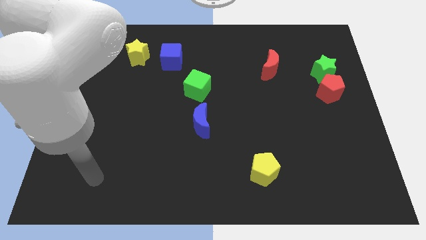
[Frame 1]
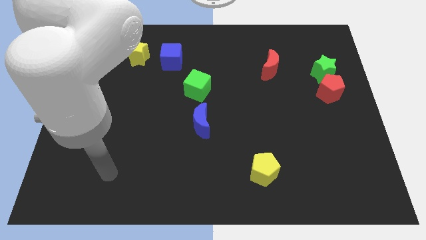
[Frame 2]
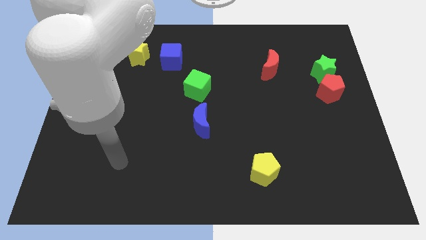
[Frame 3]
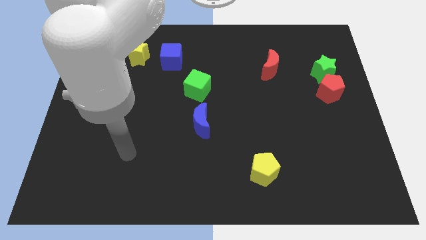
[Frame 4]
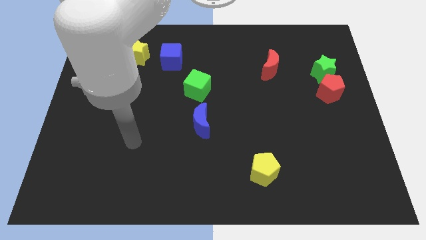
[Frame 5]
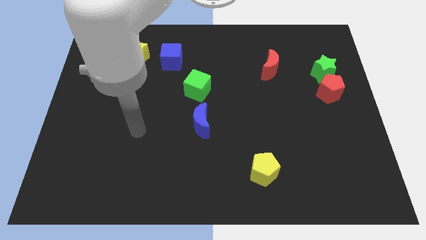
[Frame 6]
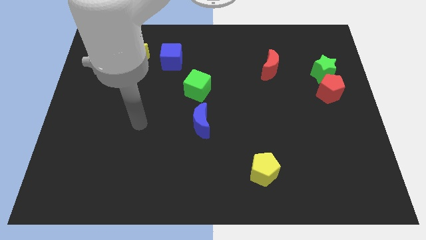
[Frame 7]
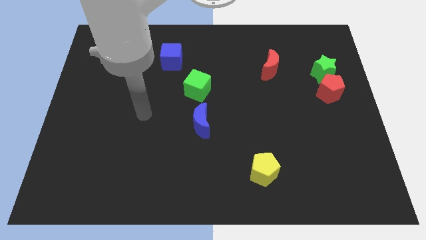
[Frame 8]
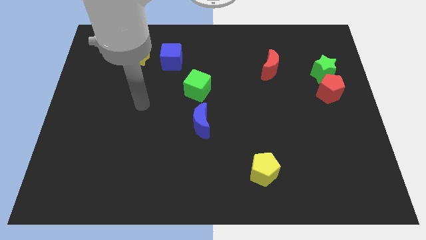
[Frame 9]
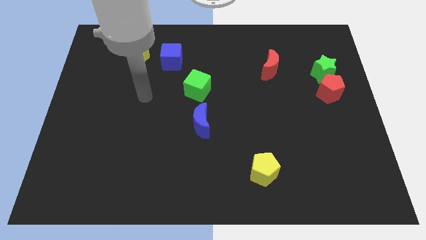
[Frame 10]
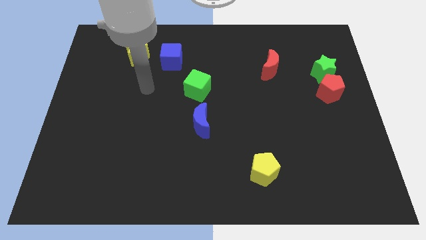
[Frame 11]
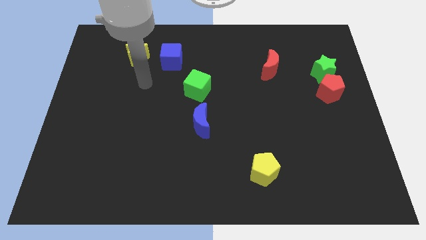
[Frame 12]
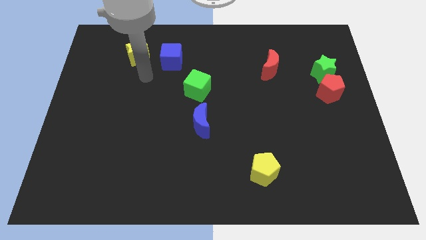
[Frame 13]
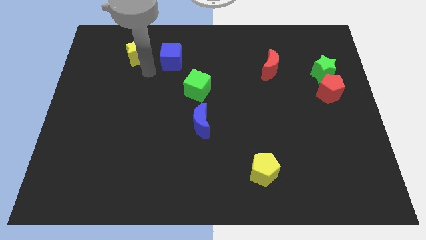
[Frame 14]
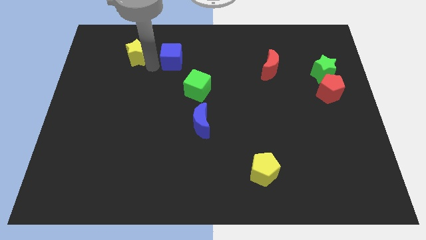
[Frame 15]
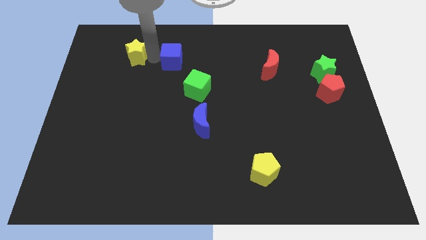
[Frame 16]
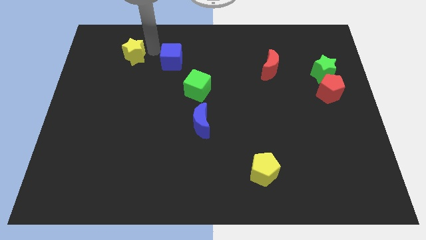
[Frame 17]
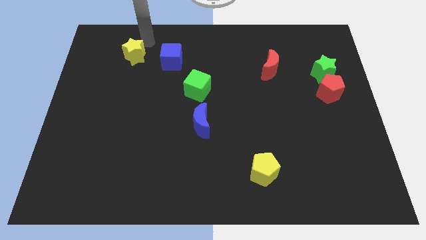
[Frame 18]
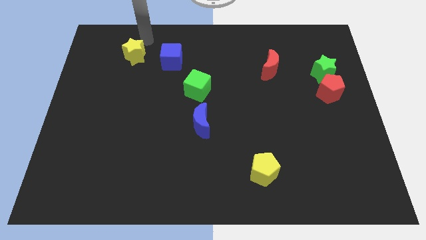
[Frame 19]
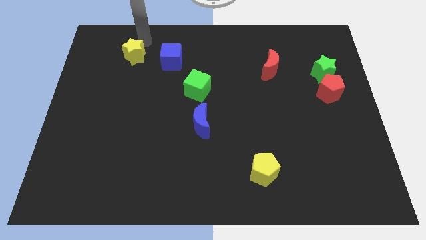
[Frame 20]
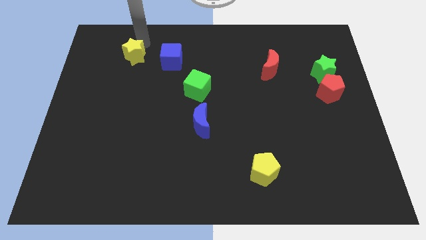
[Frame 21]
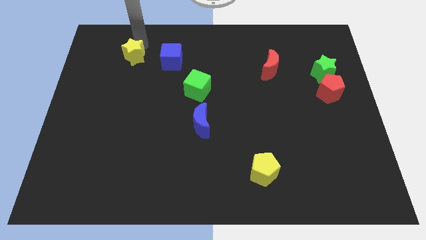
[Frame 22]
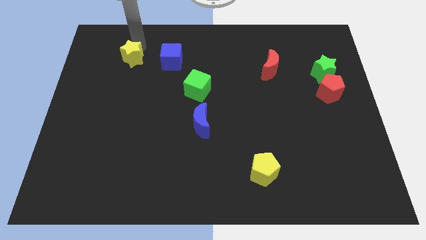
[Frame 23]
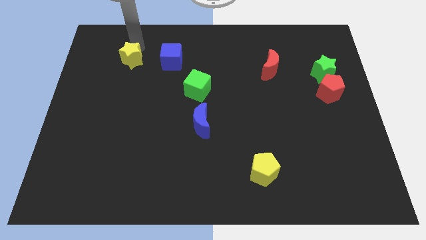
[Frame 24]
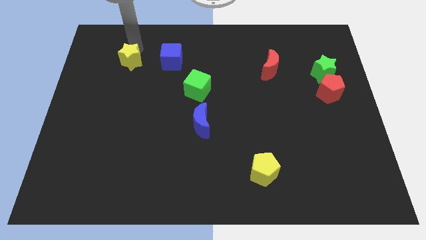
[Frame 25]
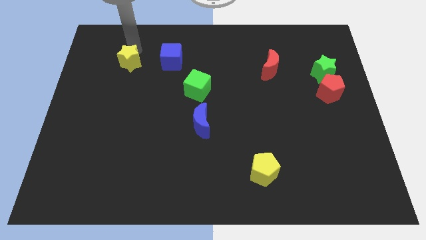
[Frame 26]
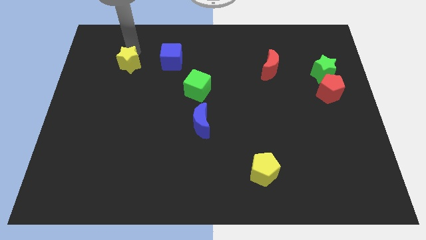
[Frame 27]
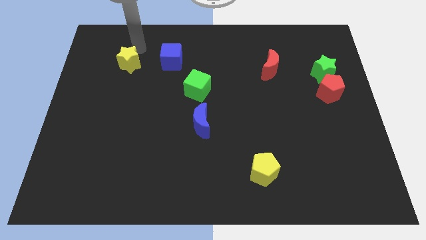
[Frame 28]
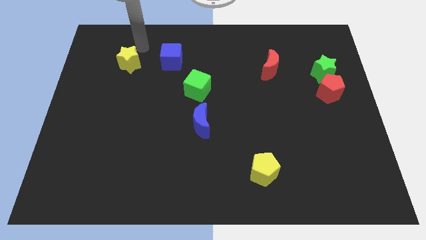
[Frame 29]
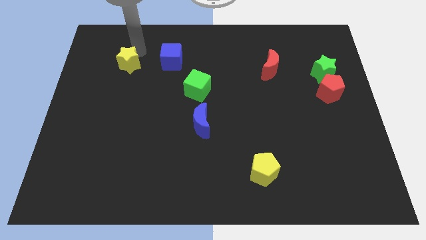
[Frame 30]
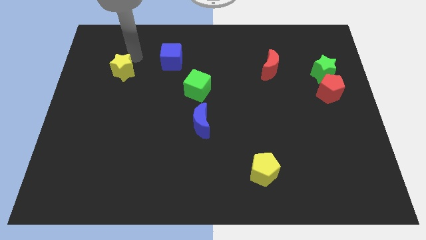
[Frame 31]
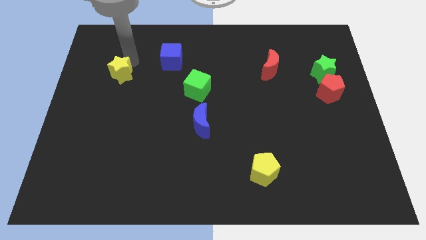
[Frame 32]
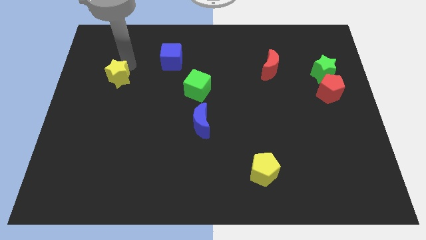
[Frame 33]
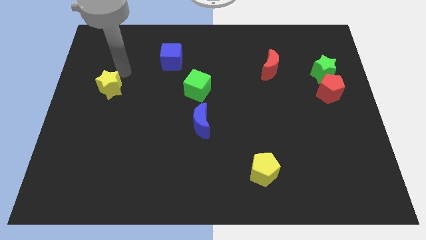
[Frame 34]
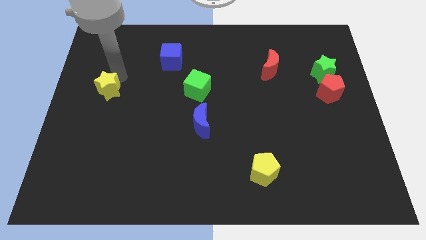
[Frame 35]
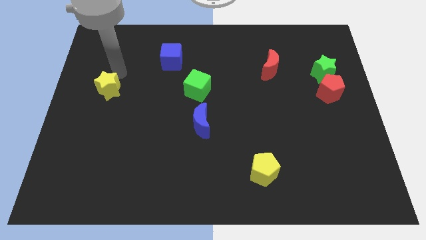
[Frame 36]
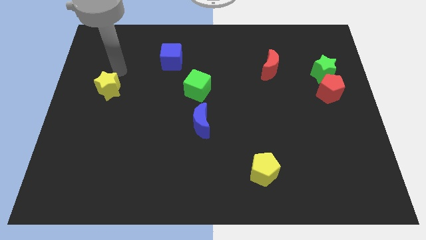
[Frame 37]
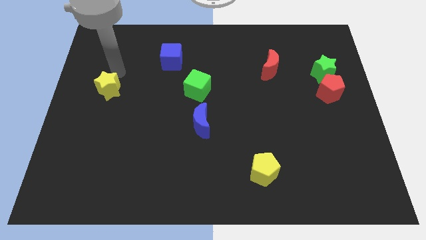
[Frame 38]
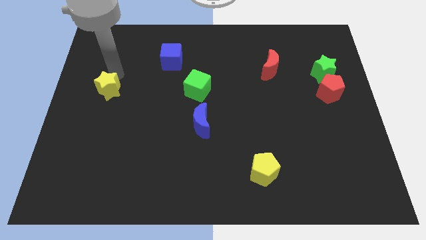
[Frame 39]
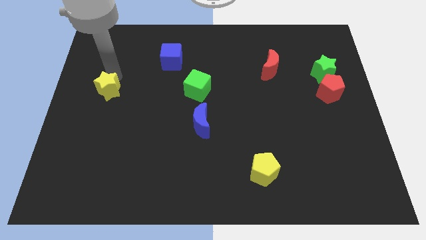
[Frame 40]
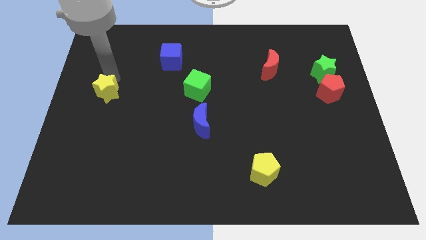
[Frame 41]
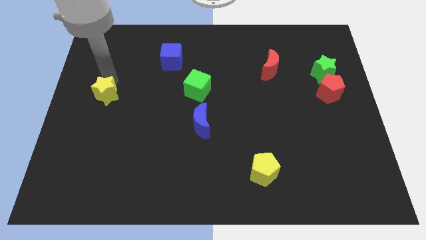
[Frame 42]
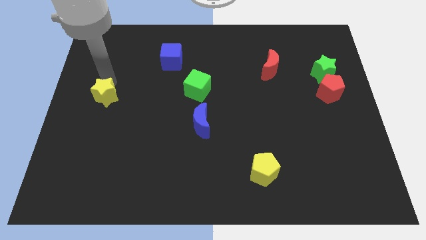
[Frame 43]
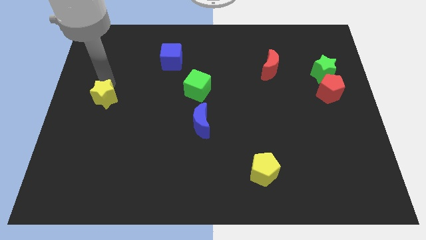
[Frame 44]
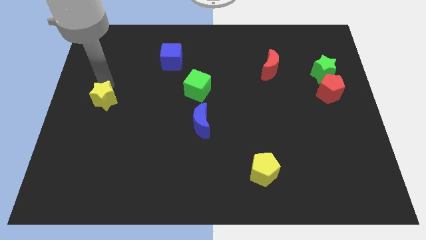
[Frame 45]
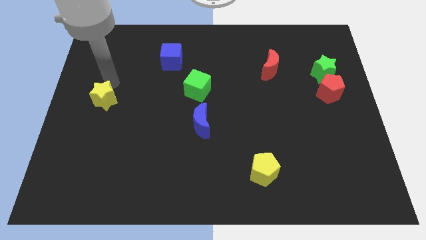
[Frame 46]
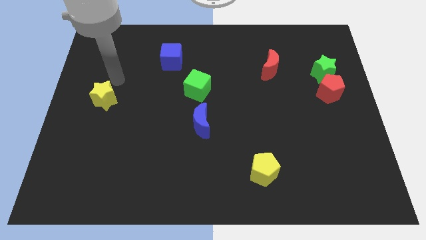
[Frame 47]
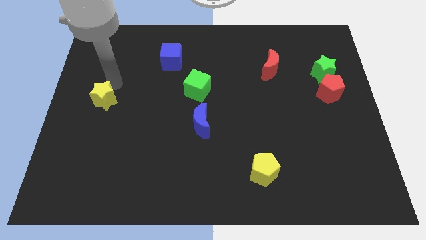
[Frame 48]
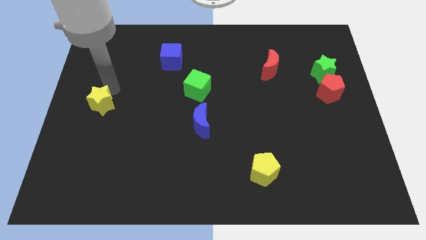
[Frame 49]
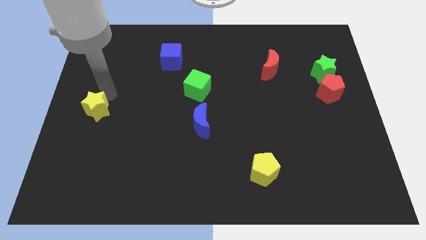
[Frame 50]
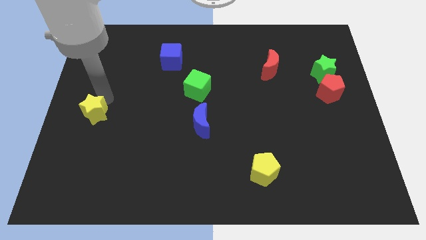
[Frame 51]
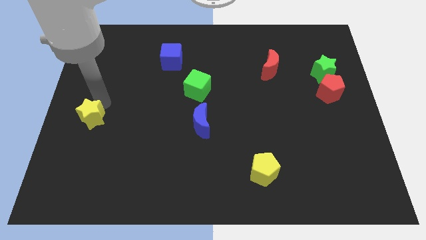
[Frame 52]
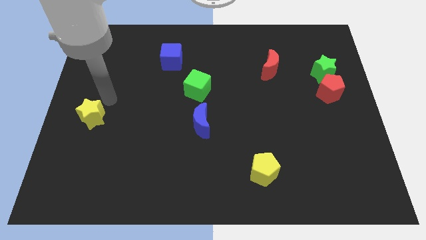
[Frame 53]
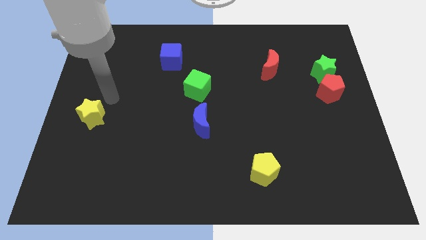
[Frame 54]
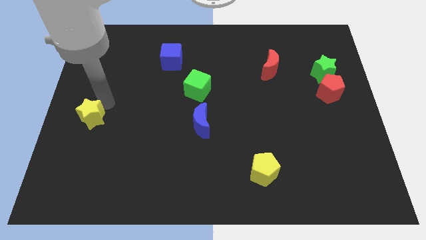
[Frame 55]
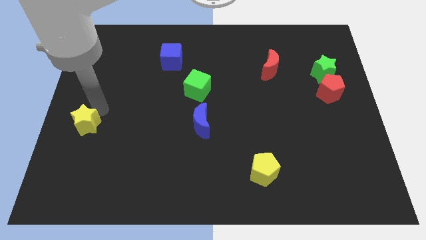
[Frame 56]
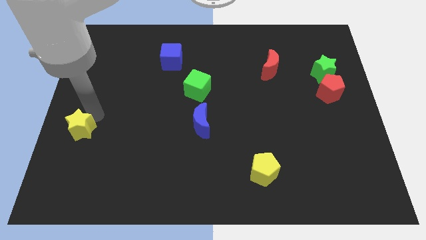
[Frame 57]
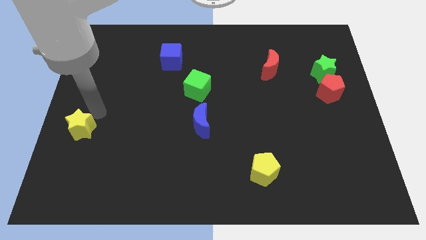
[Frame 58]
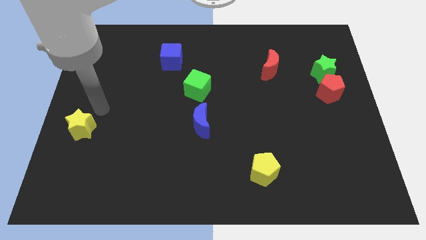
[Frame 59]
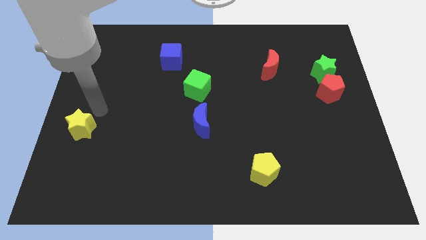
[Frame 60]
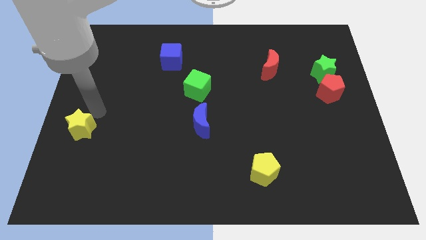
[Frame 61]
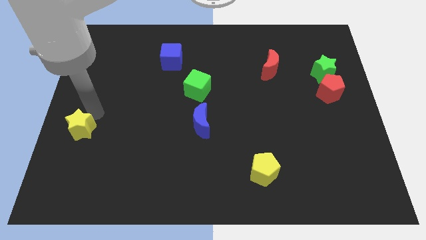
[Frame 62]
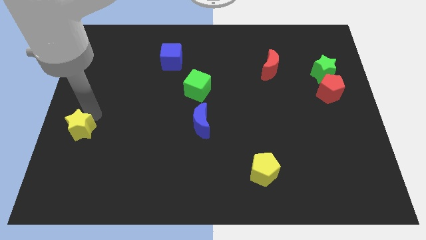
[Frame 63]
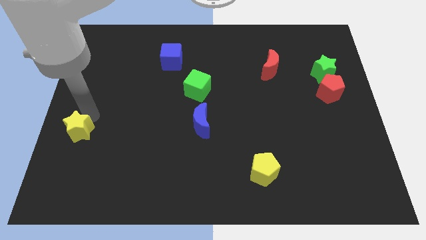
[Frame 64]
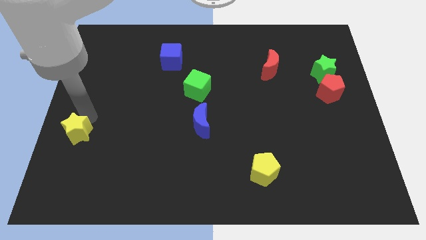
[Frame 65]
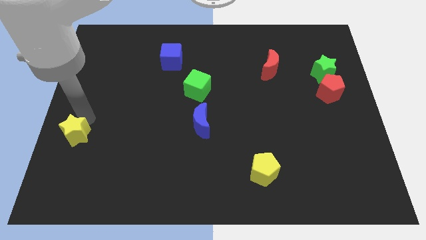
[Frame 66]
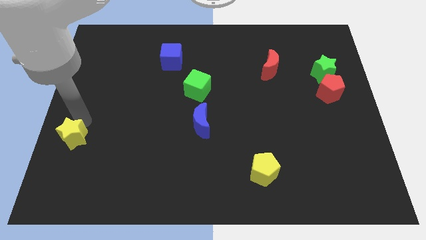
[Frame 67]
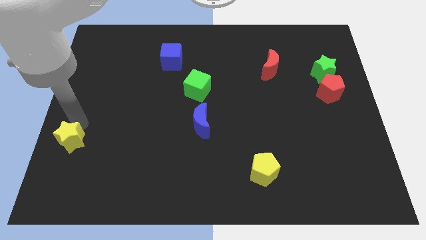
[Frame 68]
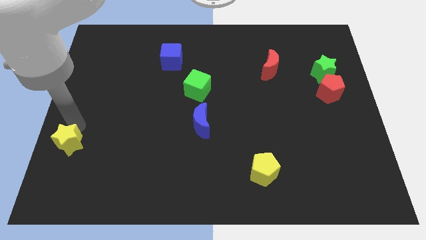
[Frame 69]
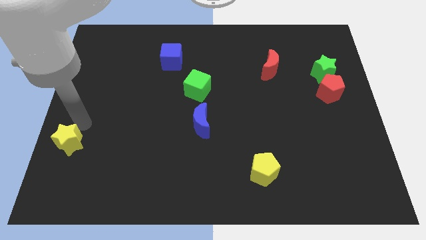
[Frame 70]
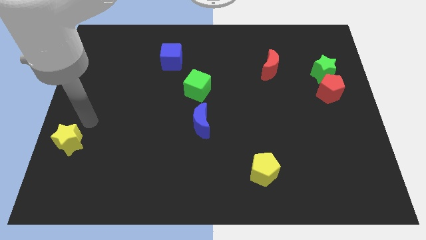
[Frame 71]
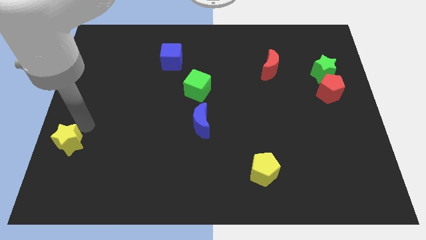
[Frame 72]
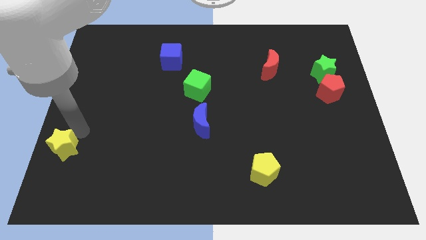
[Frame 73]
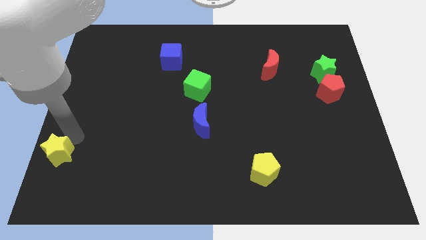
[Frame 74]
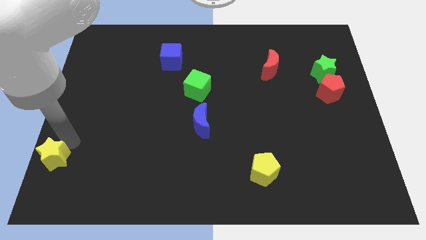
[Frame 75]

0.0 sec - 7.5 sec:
slide the yellow star to the bottom left
